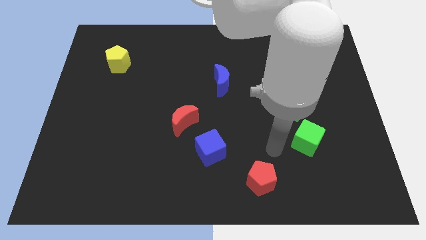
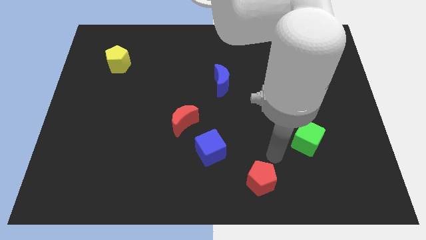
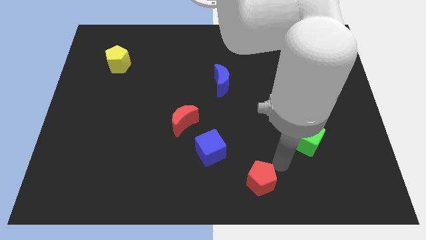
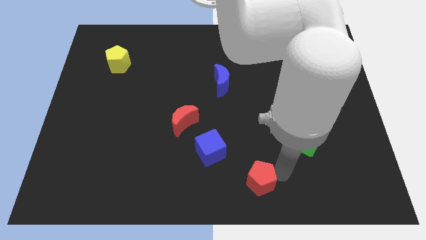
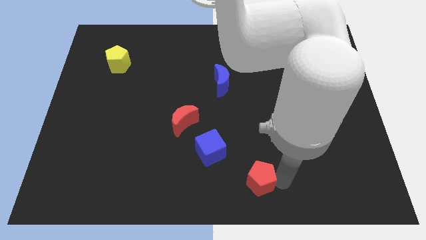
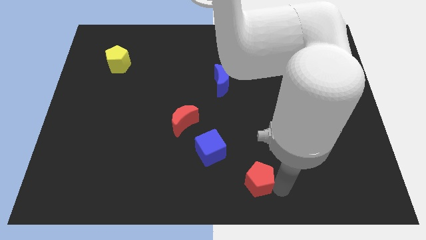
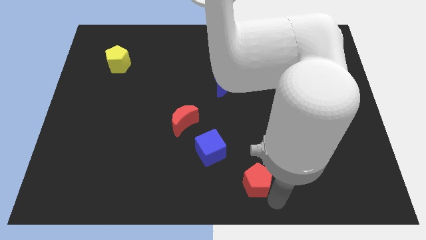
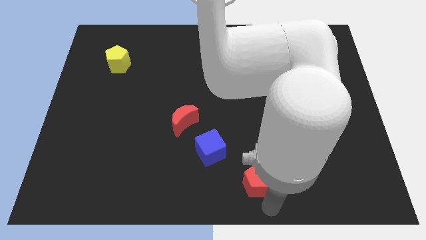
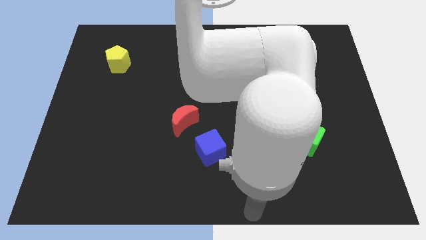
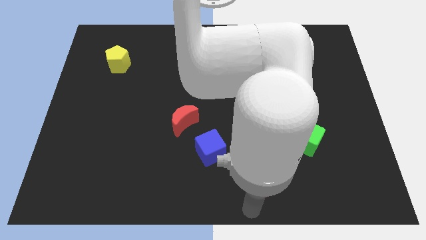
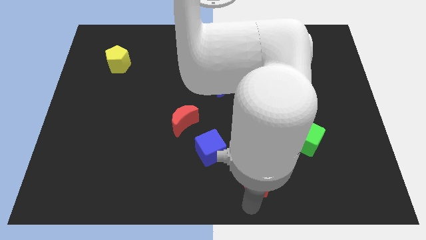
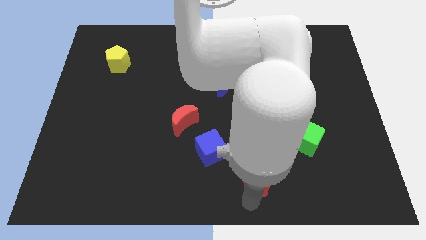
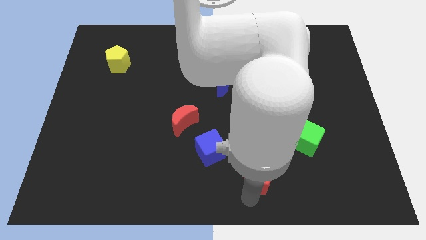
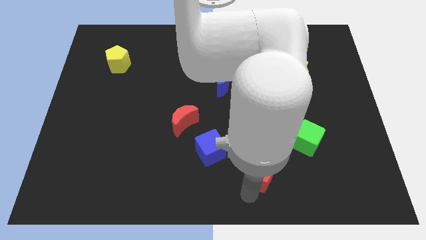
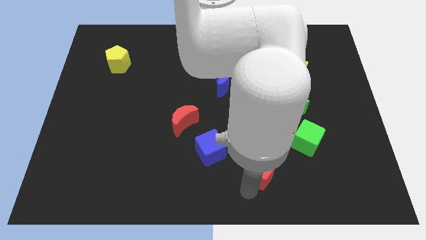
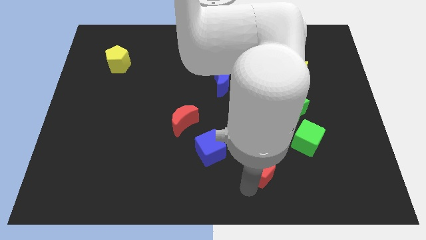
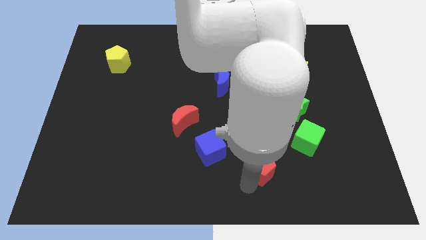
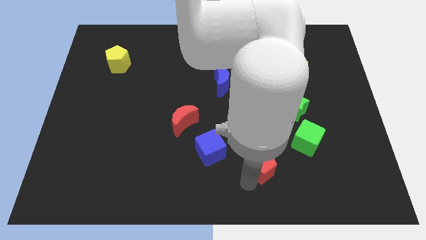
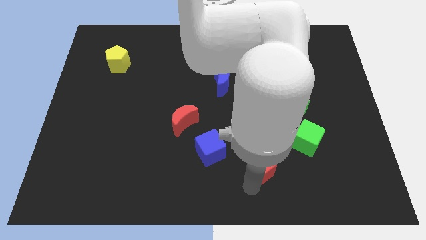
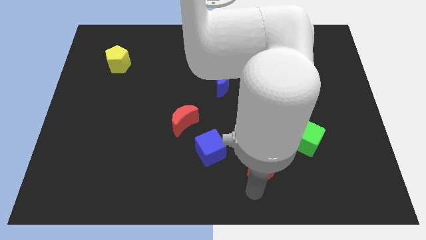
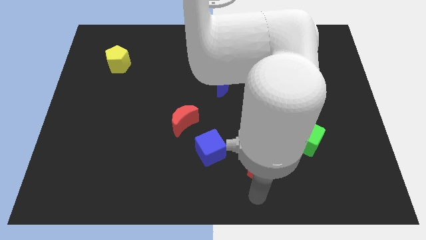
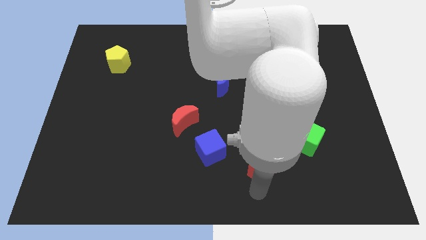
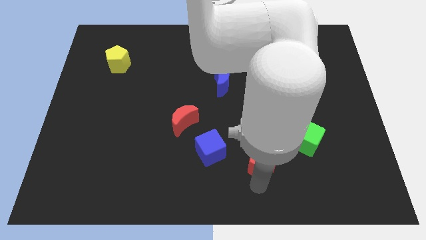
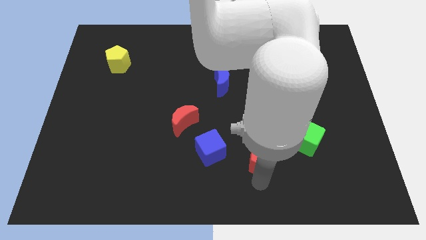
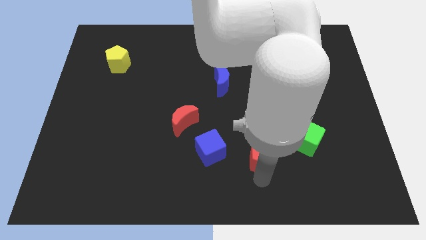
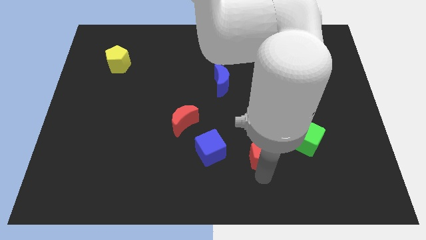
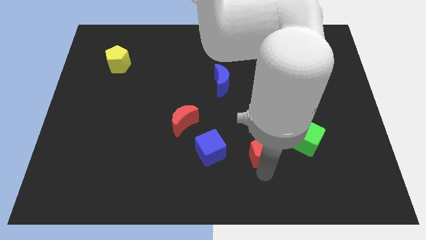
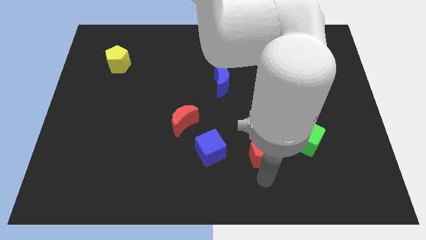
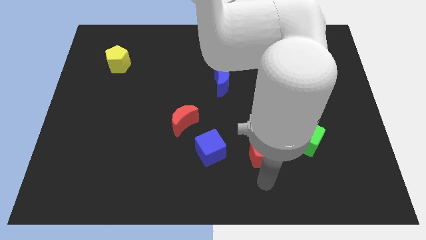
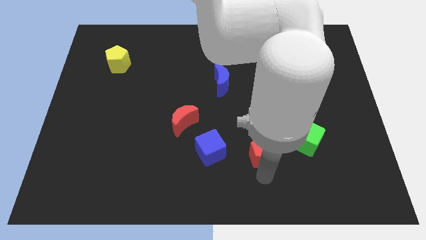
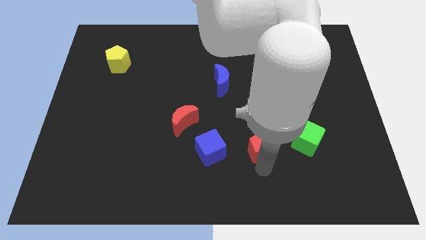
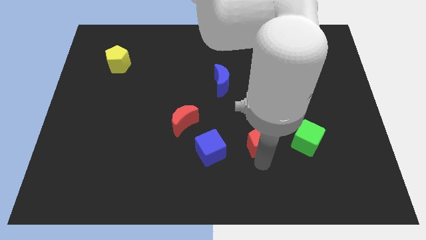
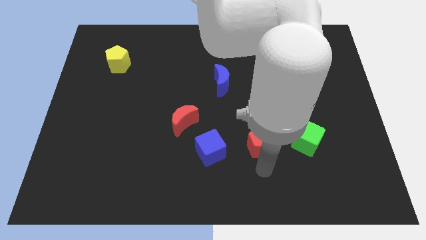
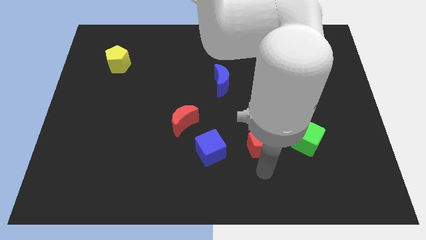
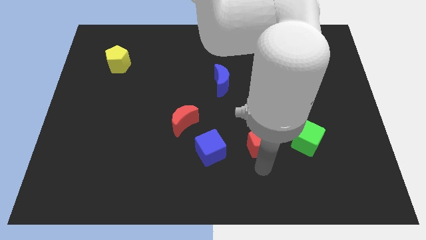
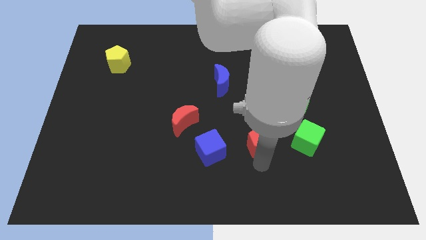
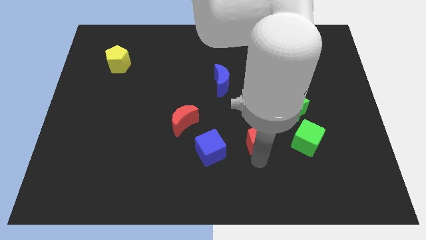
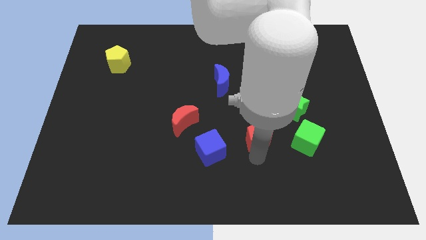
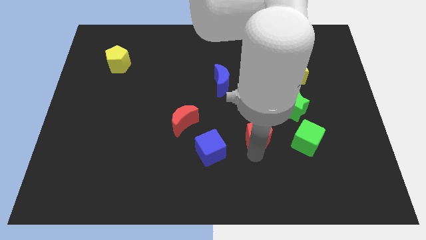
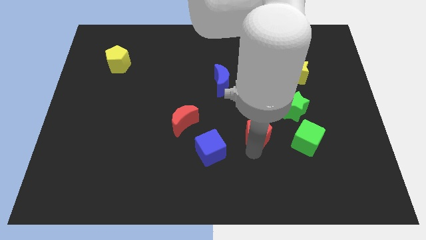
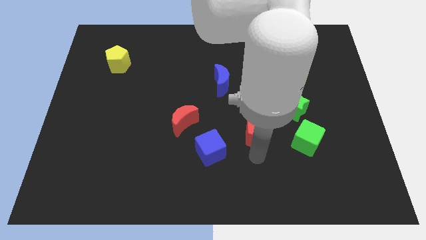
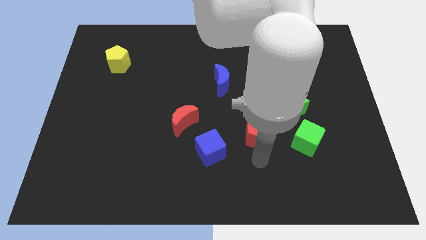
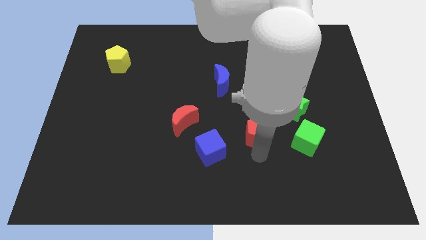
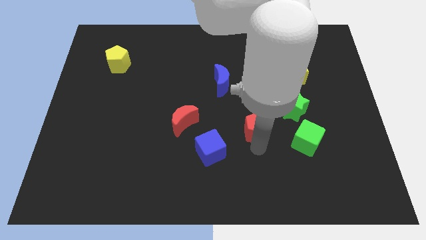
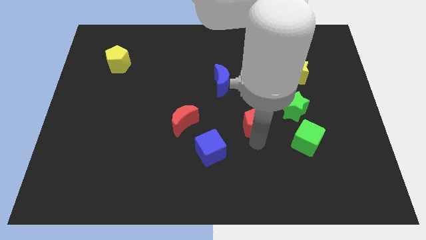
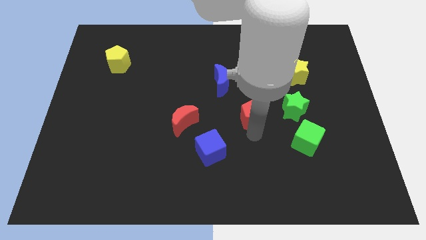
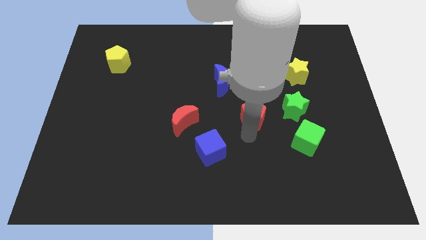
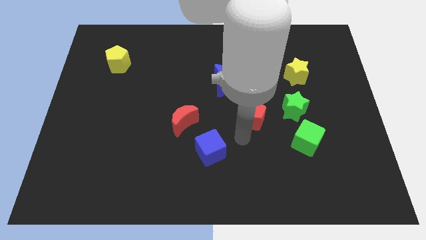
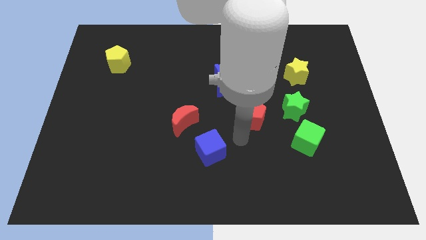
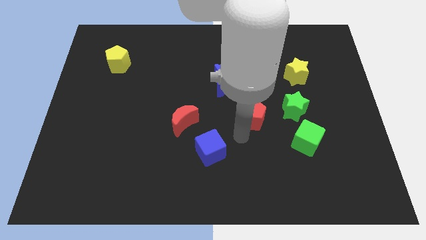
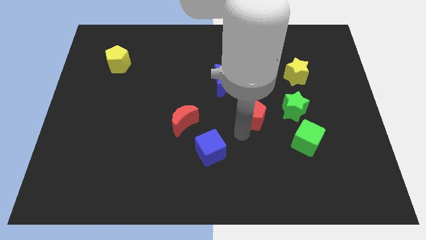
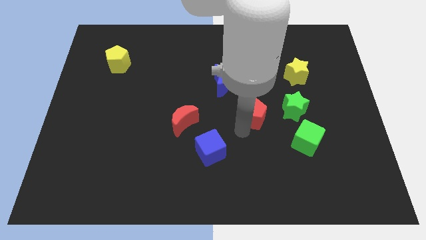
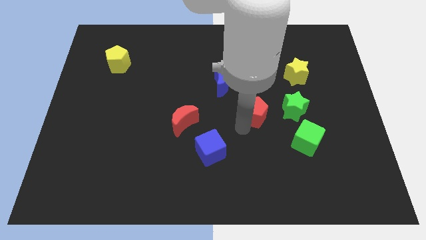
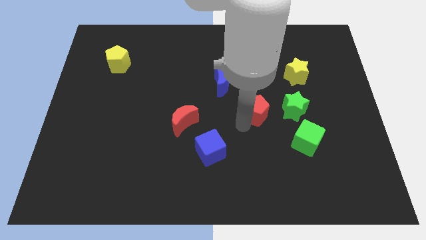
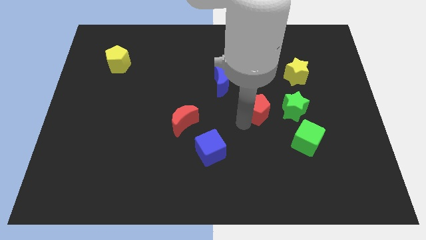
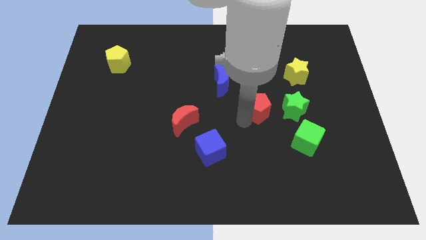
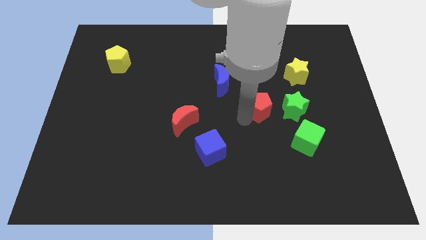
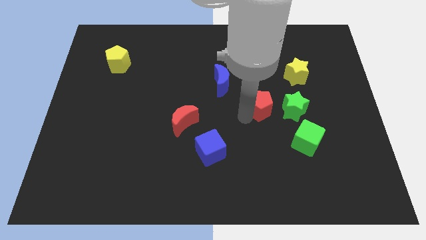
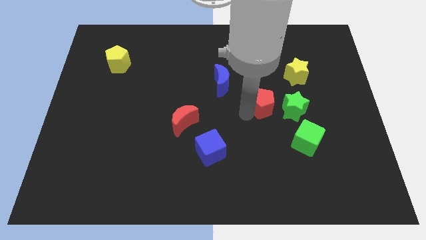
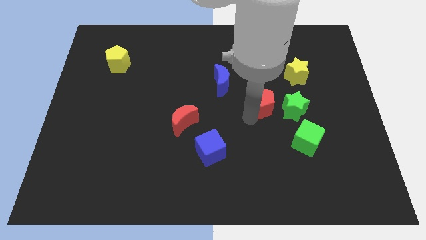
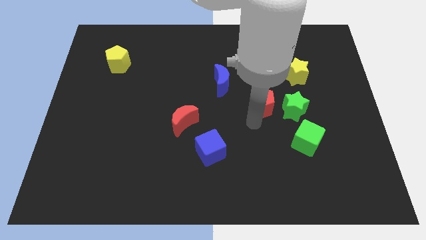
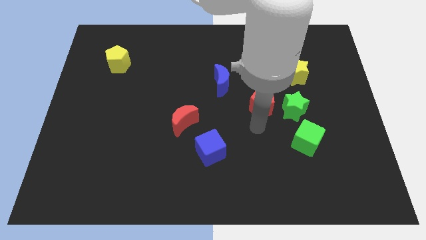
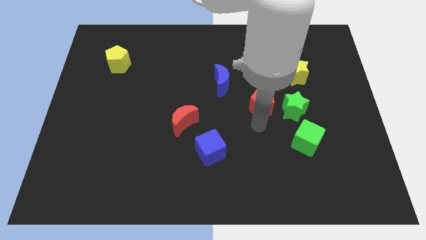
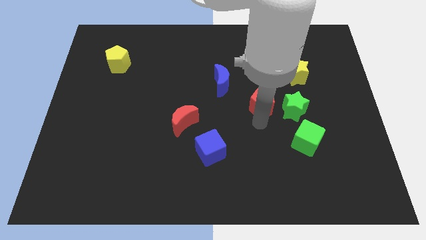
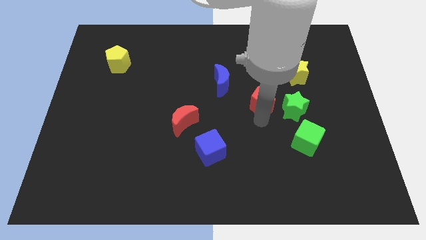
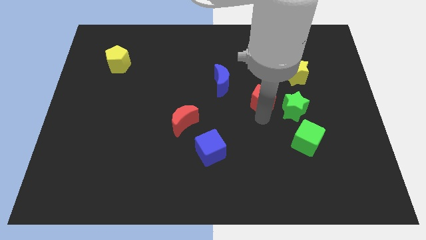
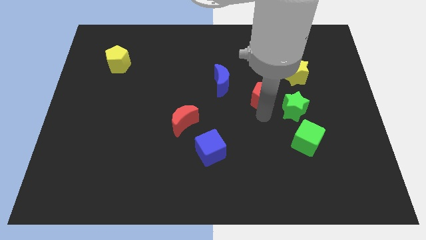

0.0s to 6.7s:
push the red pentagon right of the blue moon
